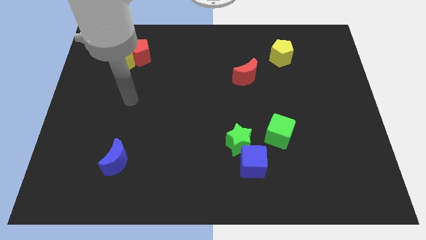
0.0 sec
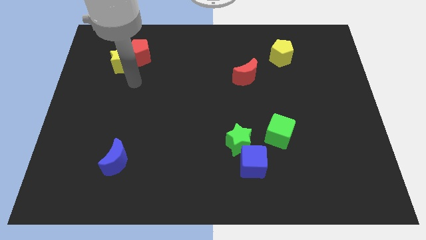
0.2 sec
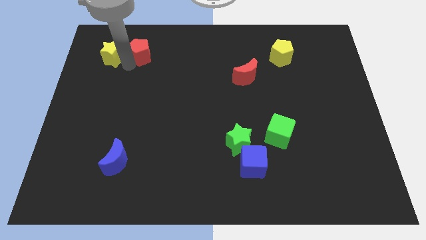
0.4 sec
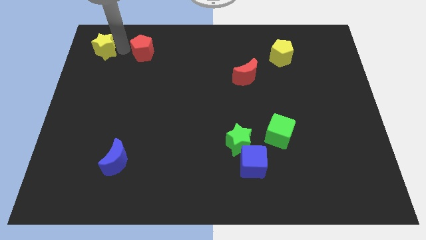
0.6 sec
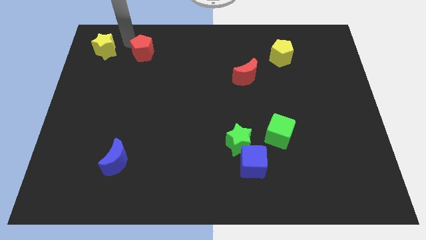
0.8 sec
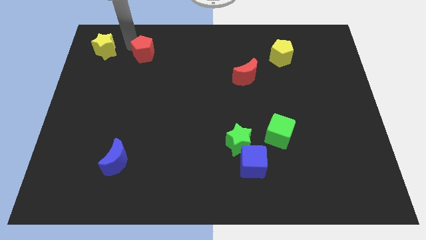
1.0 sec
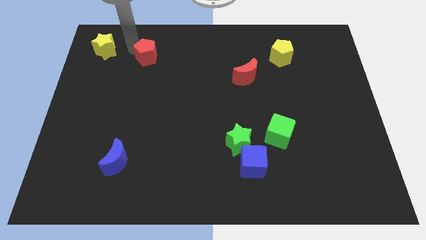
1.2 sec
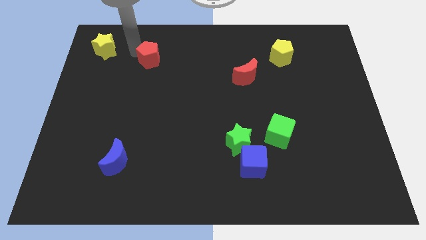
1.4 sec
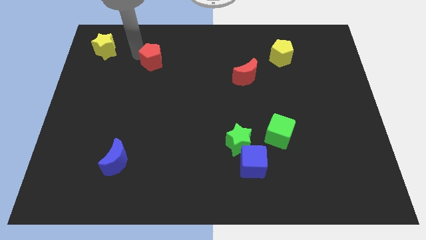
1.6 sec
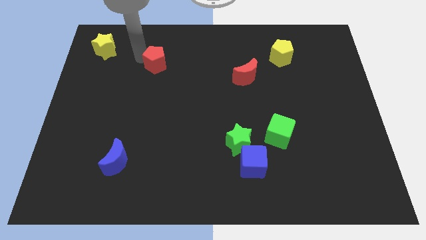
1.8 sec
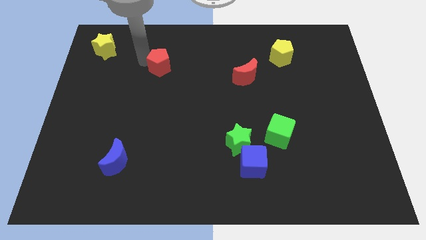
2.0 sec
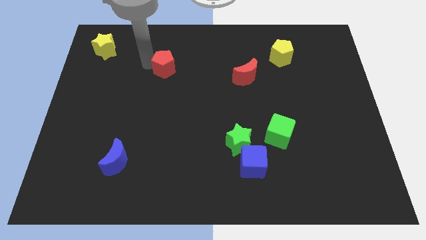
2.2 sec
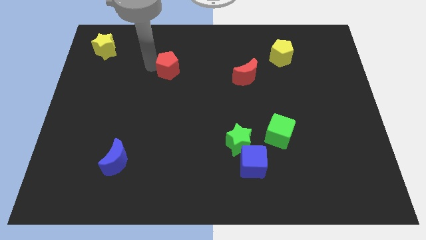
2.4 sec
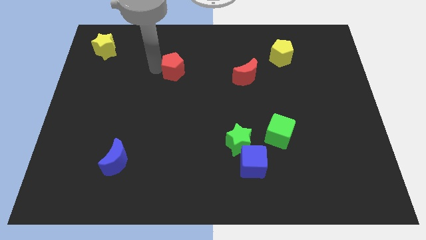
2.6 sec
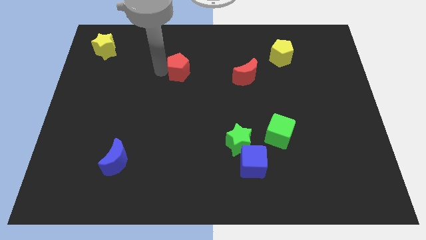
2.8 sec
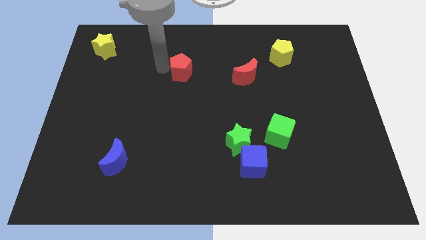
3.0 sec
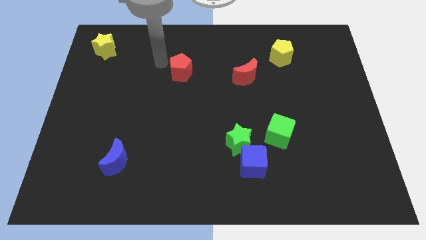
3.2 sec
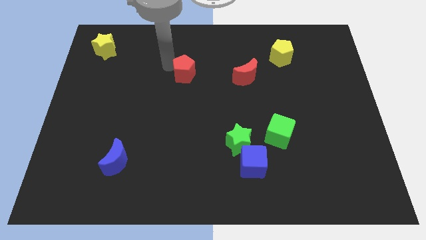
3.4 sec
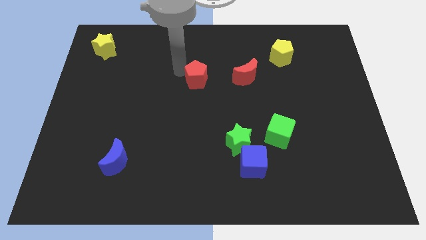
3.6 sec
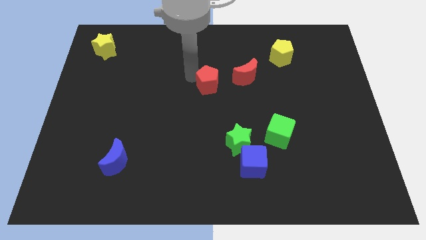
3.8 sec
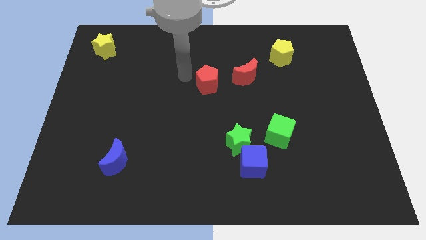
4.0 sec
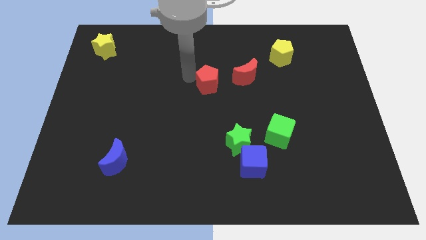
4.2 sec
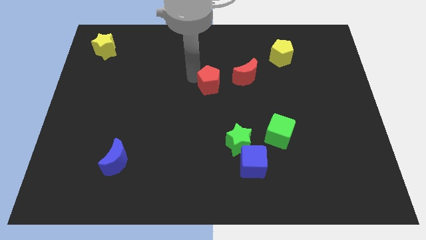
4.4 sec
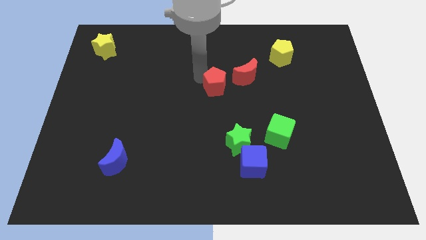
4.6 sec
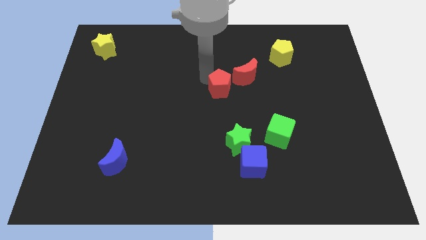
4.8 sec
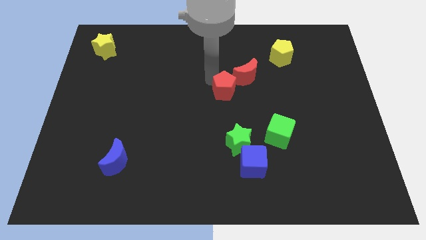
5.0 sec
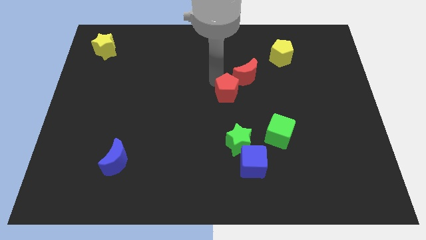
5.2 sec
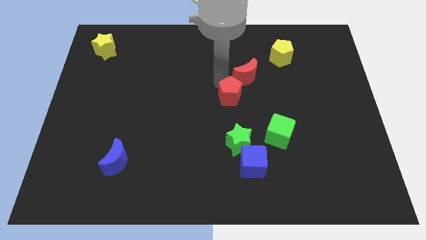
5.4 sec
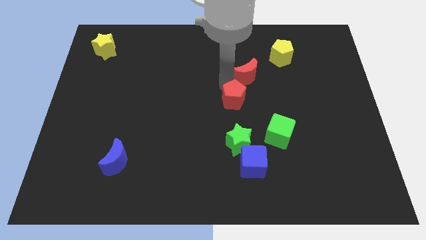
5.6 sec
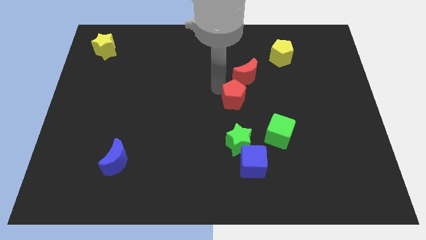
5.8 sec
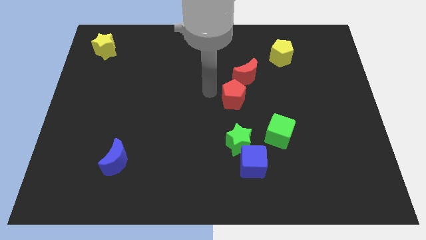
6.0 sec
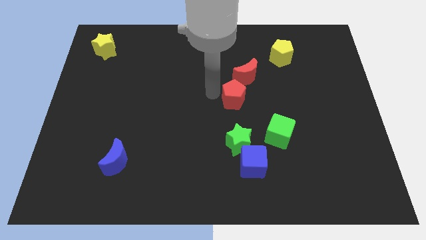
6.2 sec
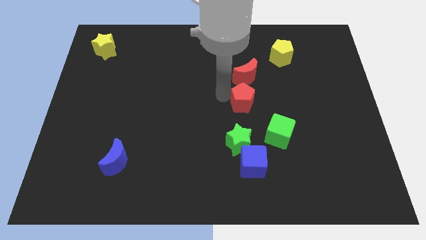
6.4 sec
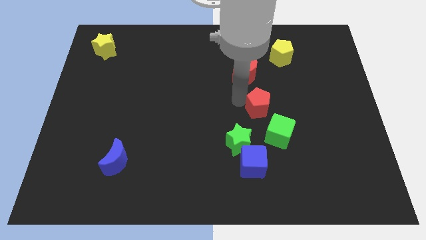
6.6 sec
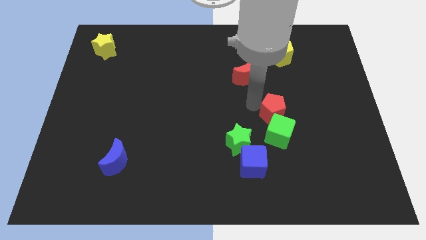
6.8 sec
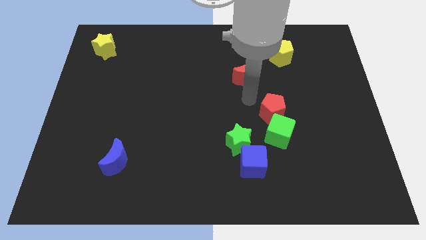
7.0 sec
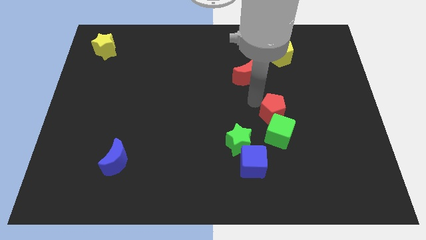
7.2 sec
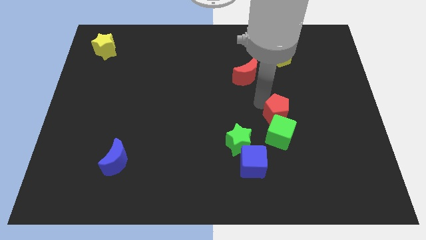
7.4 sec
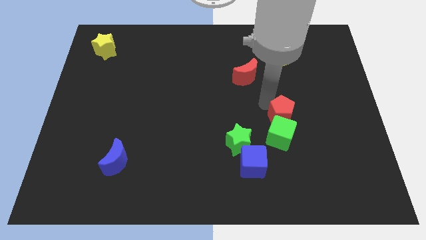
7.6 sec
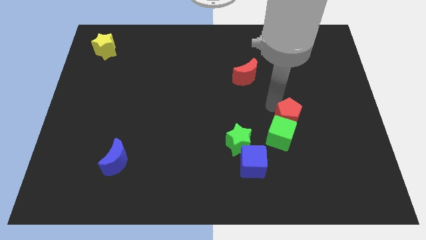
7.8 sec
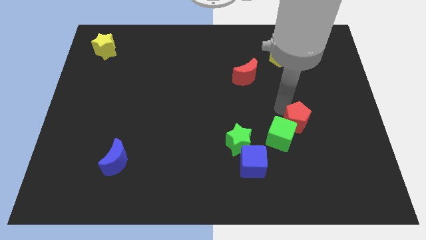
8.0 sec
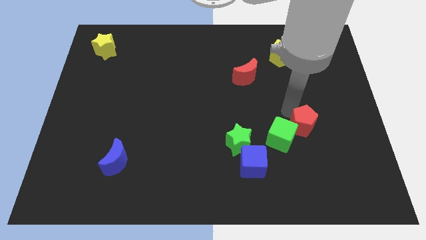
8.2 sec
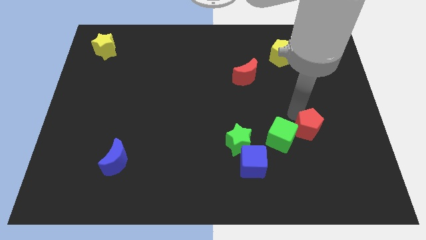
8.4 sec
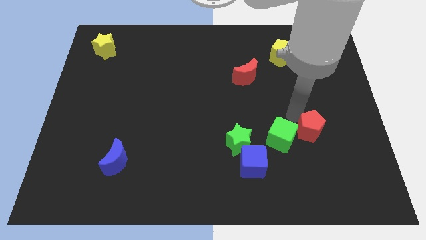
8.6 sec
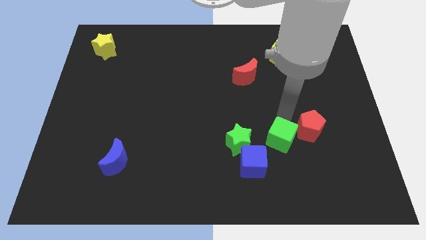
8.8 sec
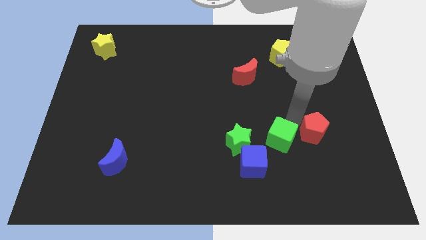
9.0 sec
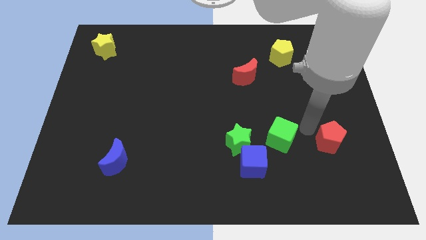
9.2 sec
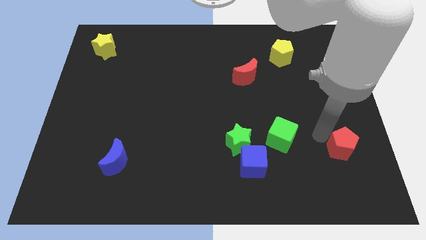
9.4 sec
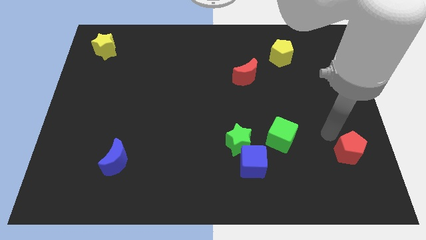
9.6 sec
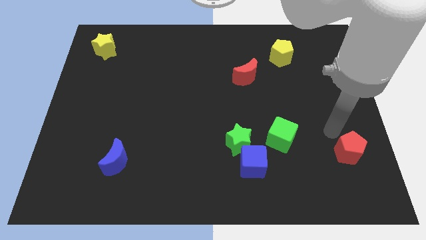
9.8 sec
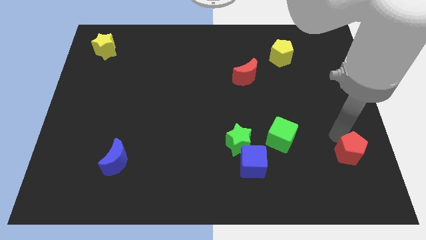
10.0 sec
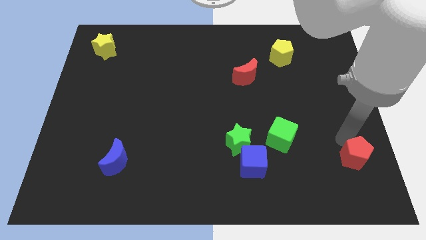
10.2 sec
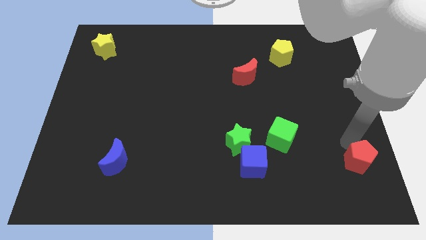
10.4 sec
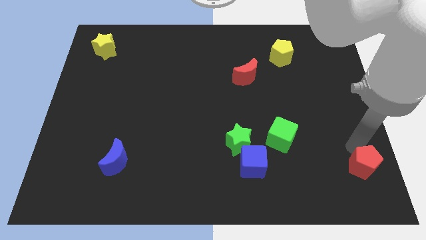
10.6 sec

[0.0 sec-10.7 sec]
put the red pentagon to the bottom right of the board

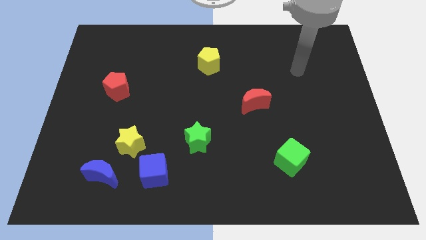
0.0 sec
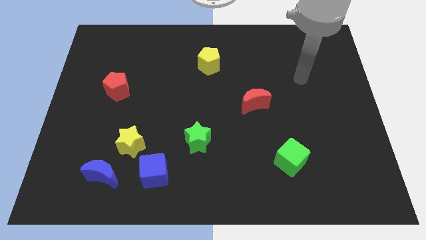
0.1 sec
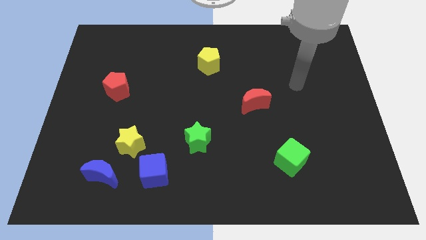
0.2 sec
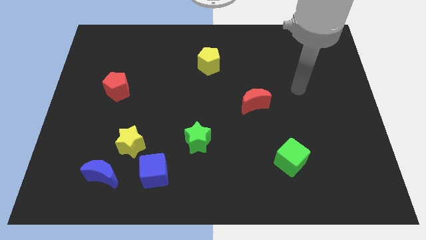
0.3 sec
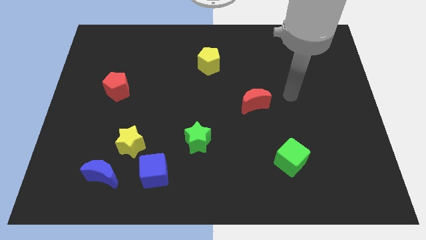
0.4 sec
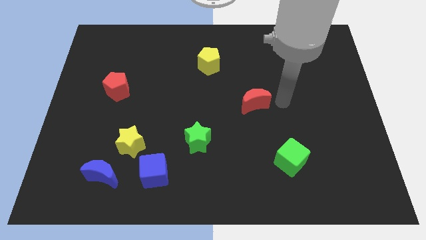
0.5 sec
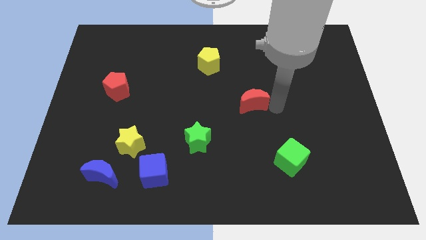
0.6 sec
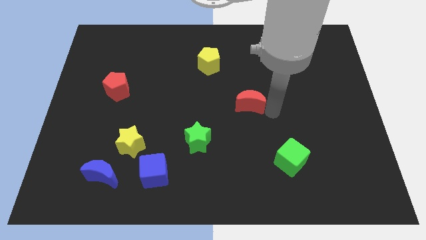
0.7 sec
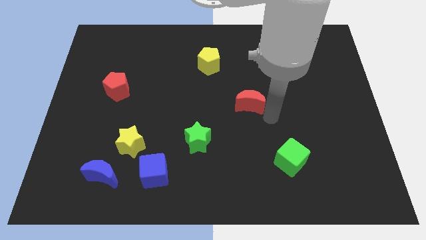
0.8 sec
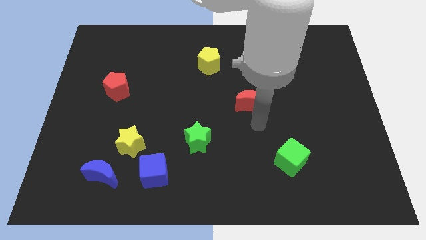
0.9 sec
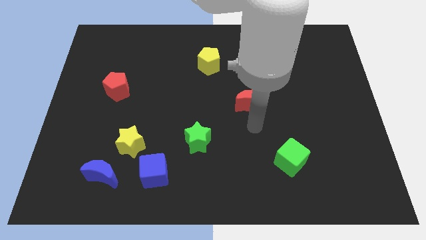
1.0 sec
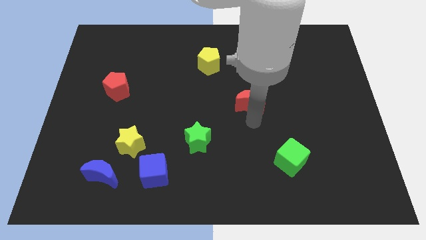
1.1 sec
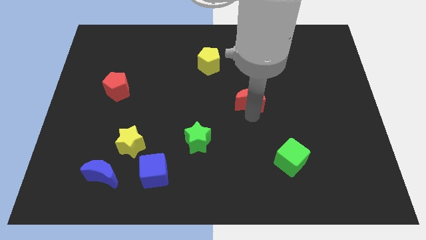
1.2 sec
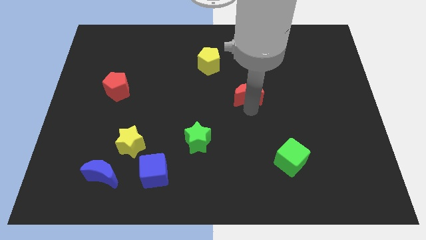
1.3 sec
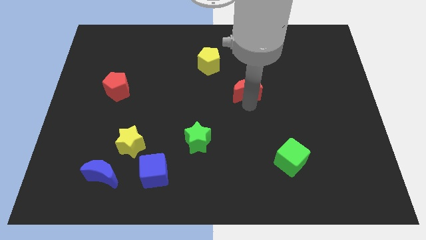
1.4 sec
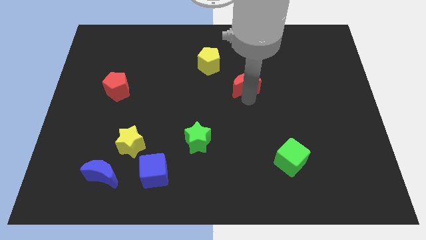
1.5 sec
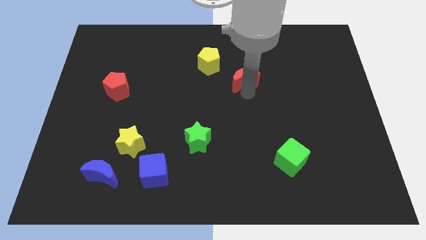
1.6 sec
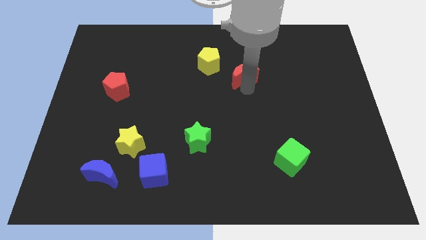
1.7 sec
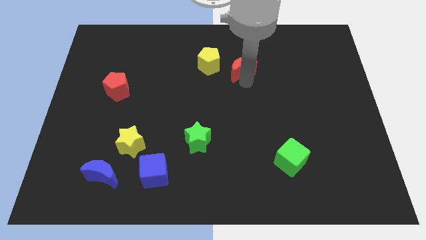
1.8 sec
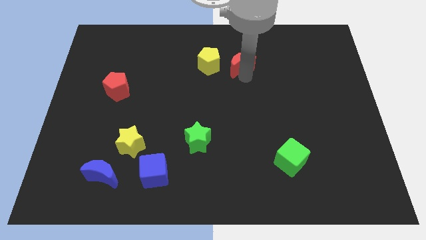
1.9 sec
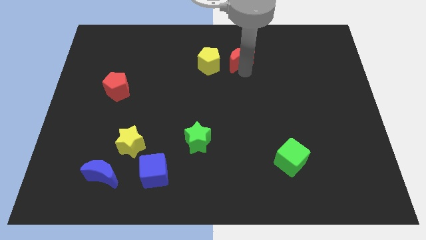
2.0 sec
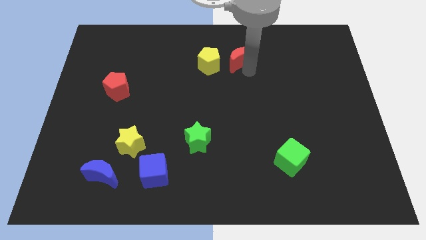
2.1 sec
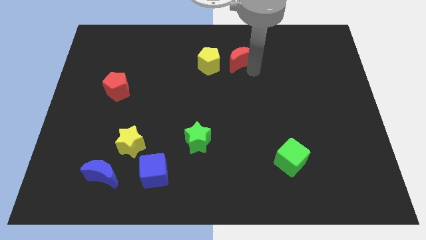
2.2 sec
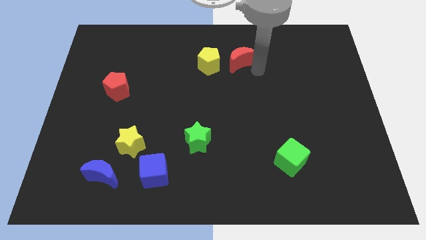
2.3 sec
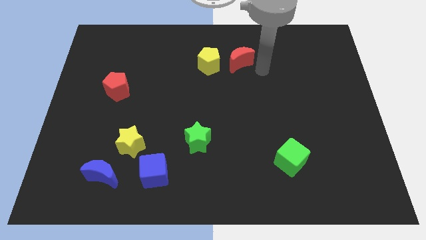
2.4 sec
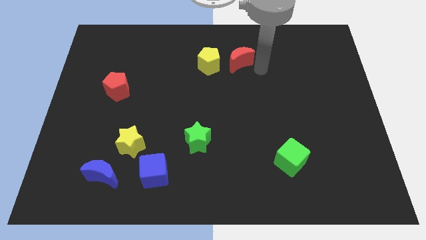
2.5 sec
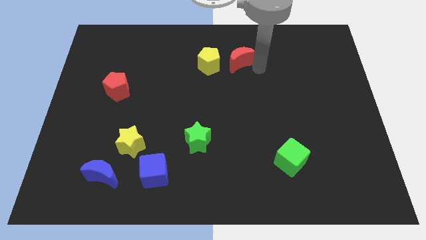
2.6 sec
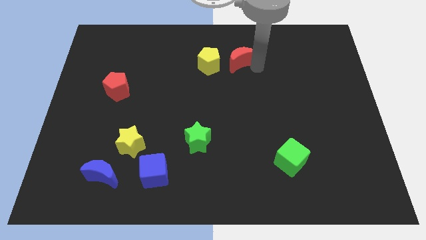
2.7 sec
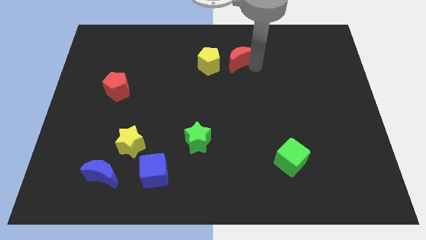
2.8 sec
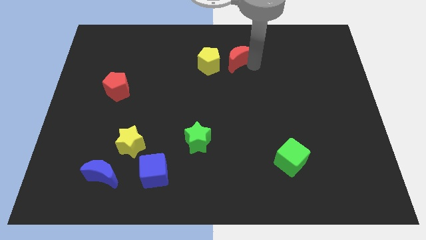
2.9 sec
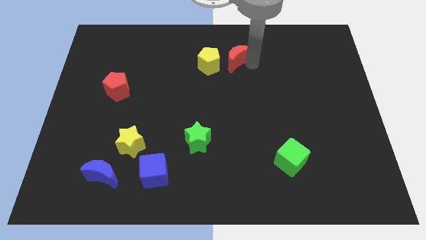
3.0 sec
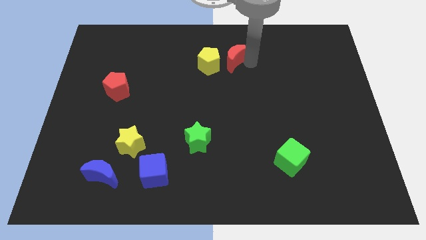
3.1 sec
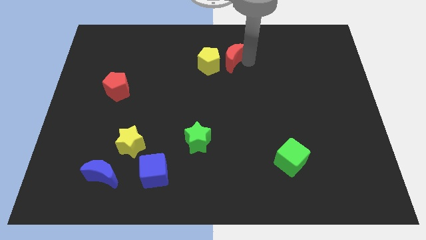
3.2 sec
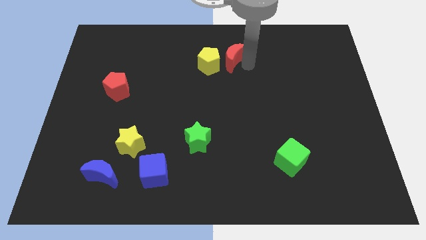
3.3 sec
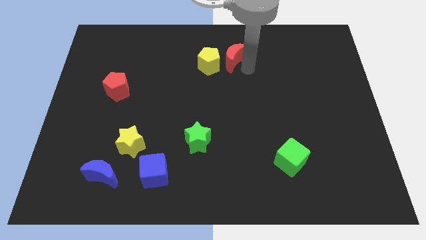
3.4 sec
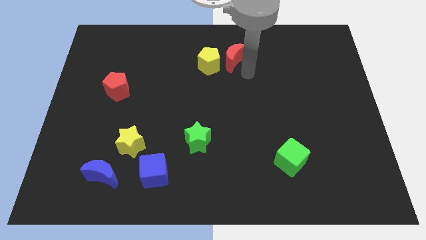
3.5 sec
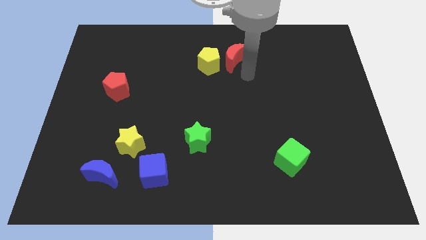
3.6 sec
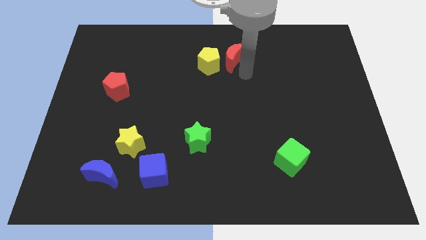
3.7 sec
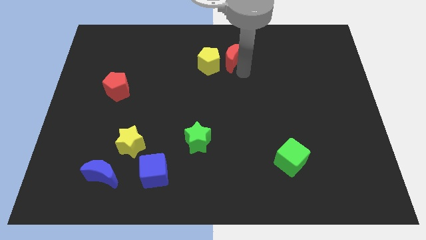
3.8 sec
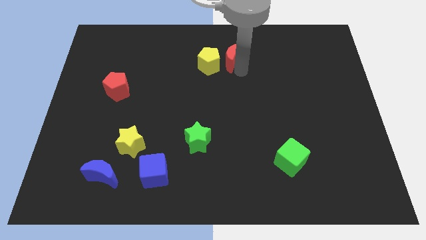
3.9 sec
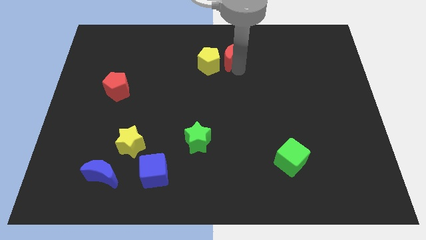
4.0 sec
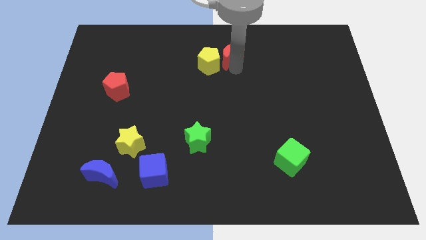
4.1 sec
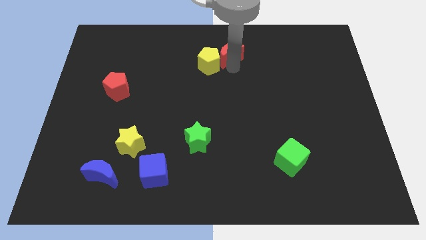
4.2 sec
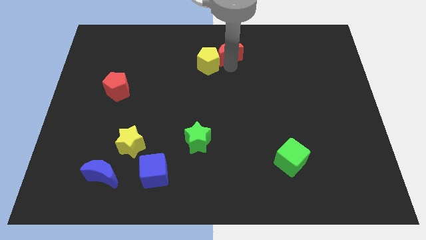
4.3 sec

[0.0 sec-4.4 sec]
move the red moon to the top side
